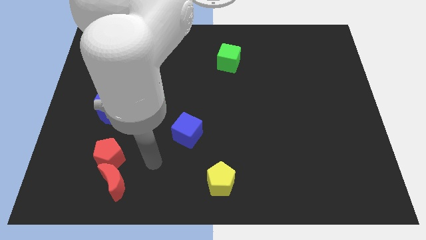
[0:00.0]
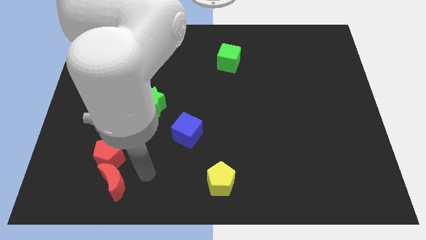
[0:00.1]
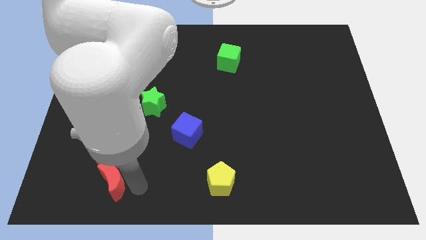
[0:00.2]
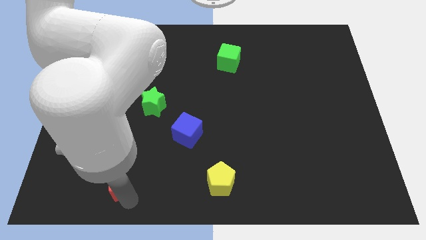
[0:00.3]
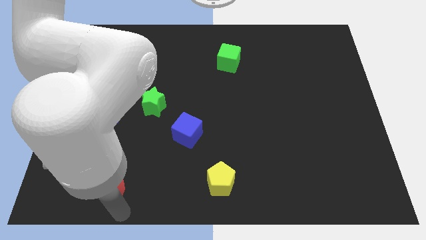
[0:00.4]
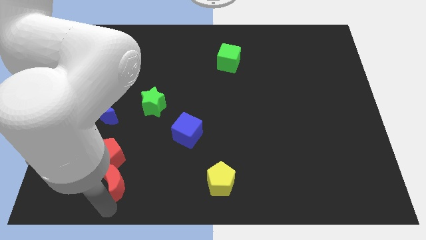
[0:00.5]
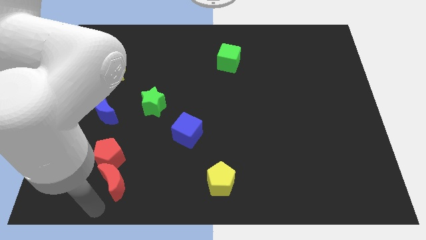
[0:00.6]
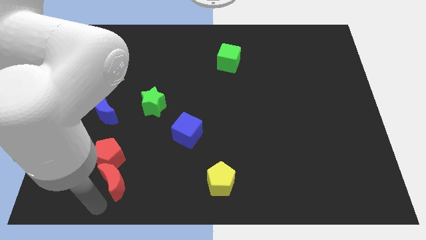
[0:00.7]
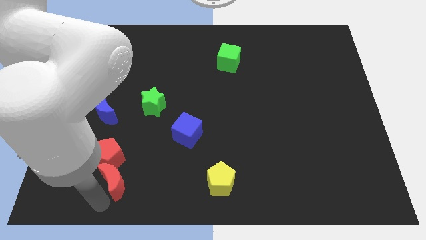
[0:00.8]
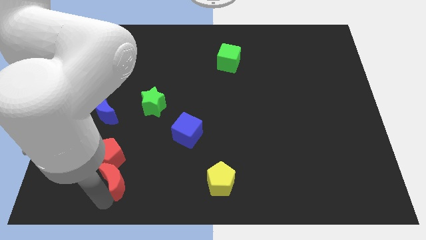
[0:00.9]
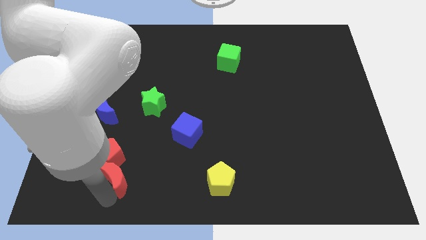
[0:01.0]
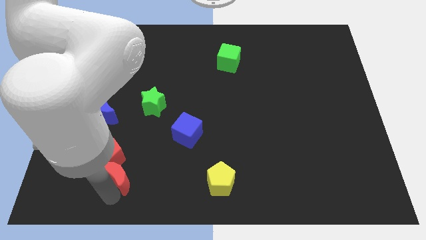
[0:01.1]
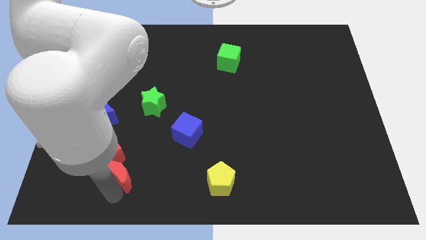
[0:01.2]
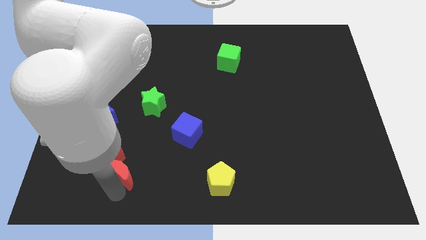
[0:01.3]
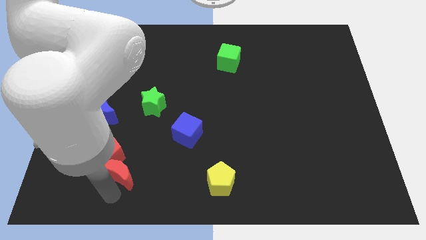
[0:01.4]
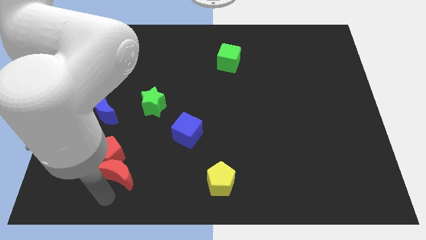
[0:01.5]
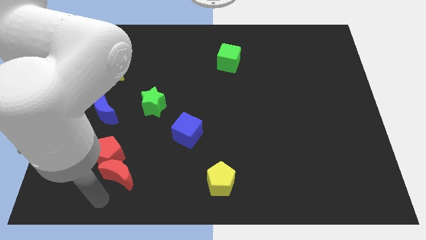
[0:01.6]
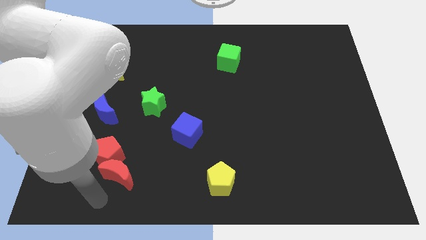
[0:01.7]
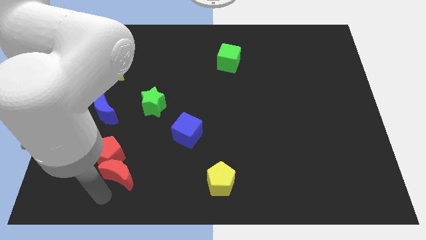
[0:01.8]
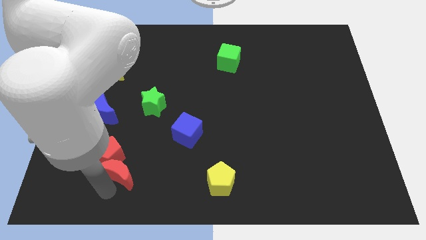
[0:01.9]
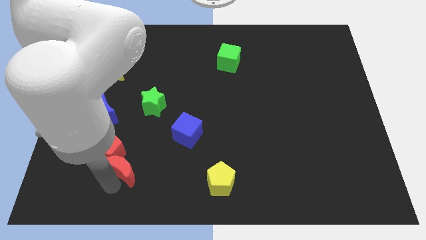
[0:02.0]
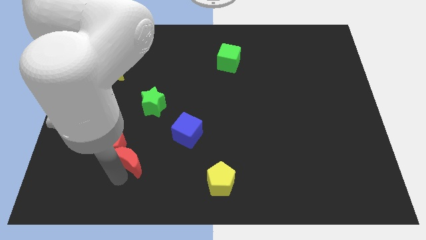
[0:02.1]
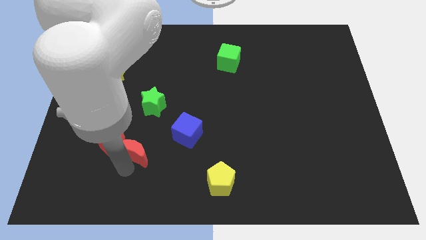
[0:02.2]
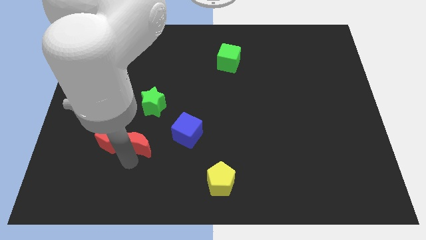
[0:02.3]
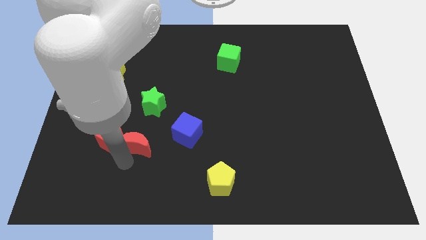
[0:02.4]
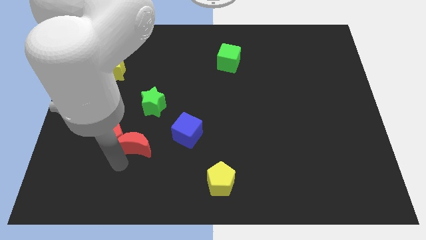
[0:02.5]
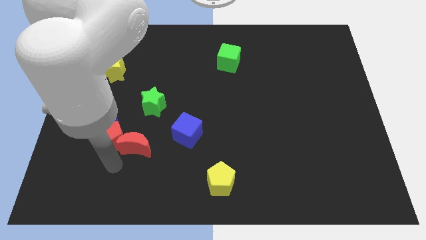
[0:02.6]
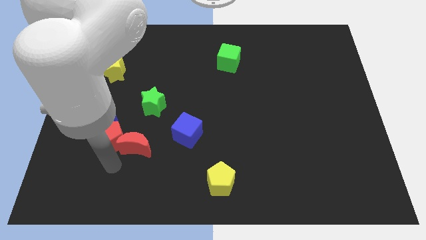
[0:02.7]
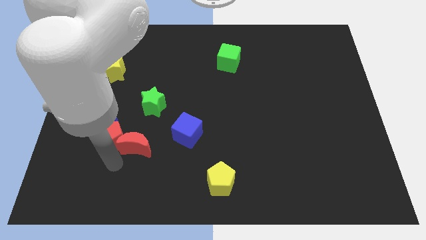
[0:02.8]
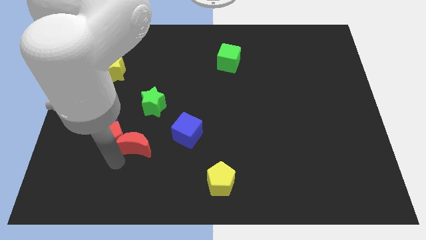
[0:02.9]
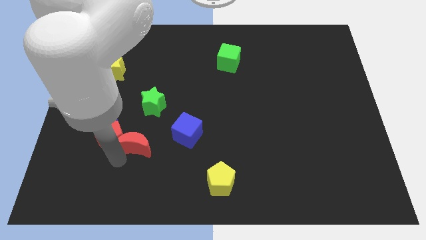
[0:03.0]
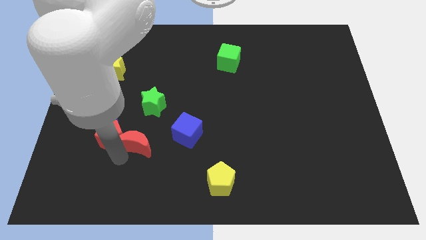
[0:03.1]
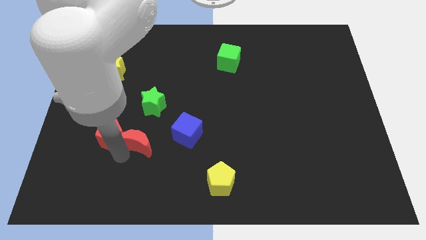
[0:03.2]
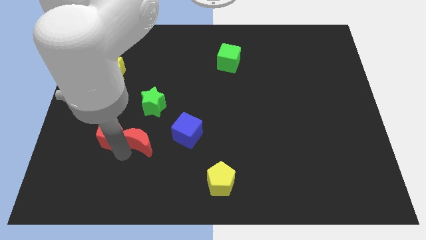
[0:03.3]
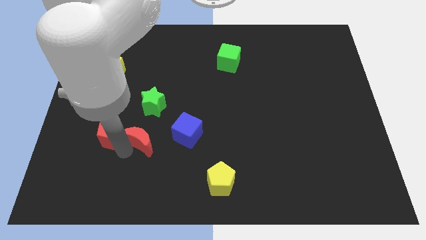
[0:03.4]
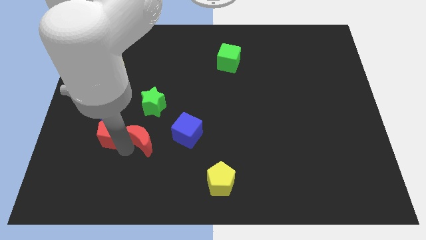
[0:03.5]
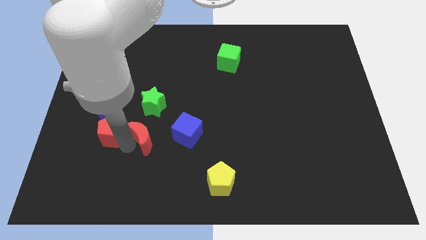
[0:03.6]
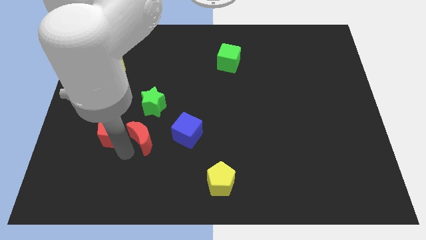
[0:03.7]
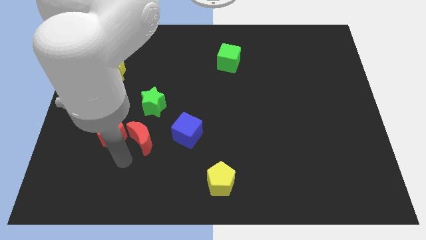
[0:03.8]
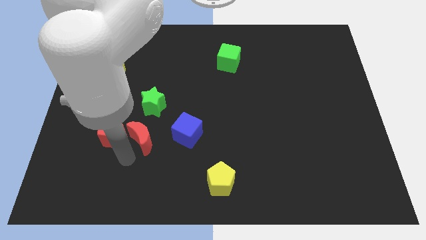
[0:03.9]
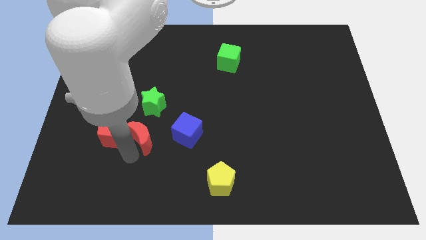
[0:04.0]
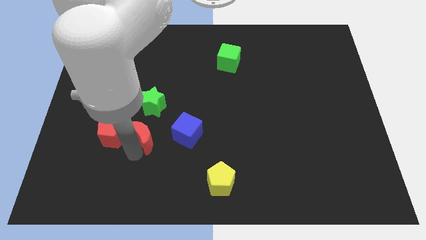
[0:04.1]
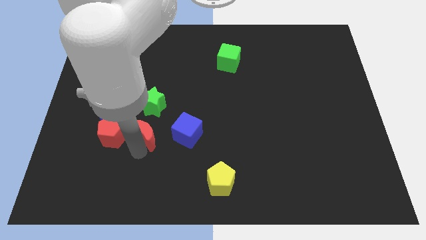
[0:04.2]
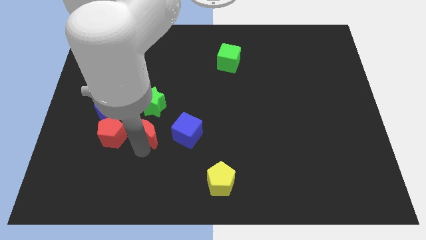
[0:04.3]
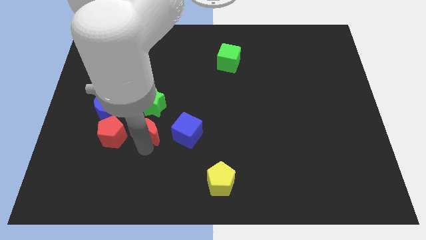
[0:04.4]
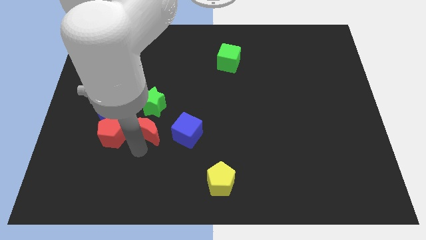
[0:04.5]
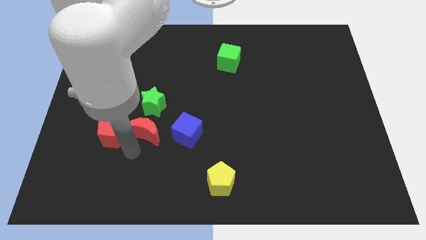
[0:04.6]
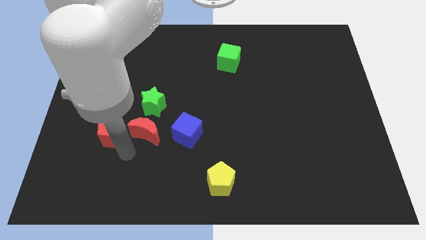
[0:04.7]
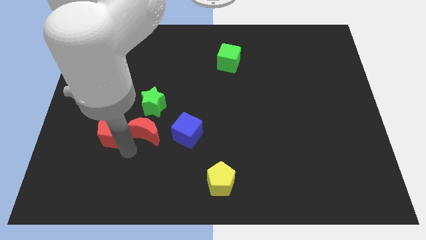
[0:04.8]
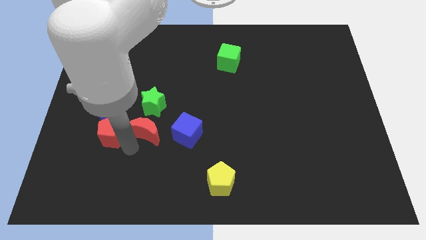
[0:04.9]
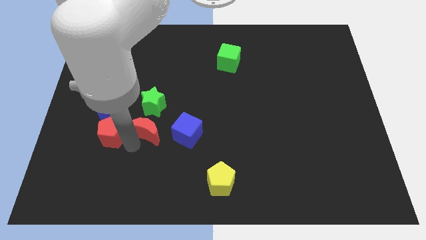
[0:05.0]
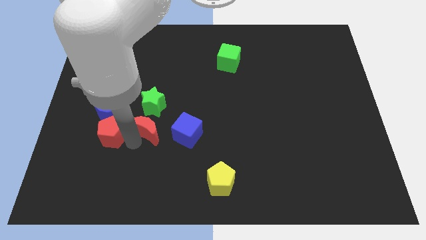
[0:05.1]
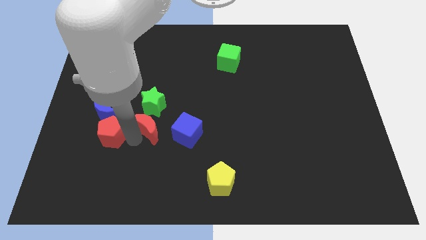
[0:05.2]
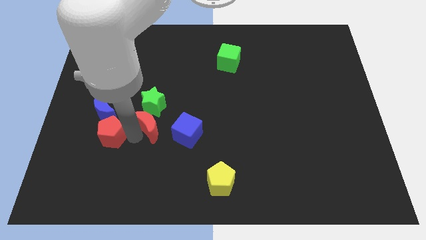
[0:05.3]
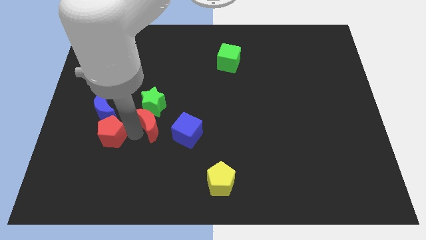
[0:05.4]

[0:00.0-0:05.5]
put the red moon diagonally up and to the left of the blue cube

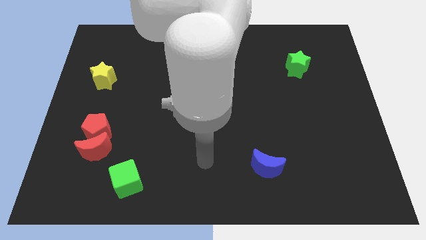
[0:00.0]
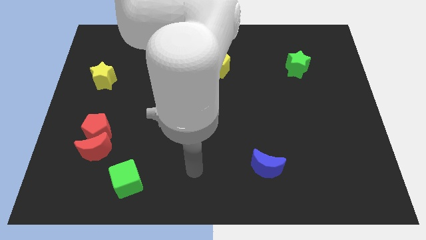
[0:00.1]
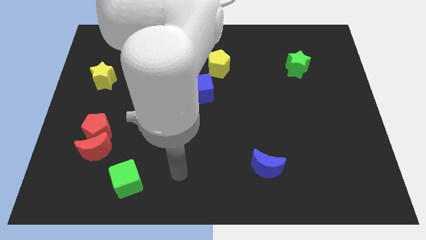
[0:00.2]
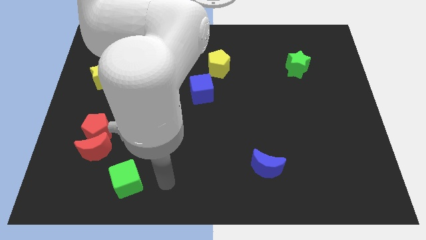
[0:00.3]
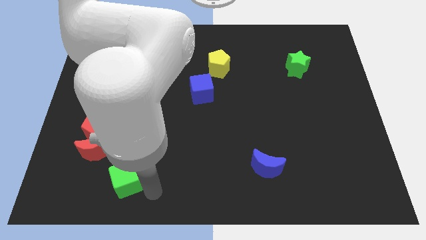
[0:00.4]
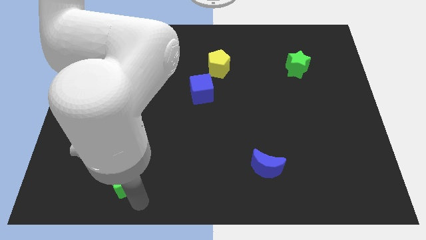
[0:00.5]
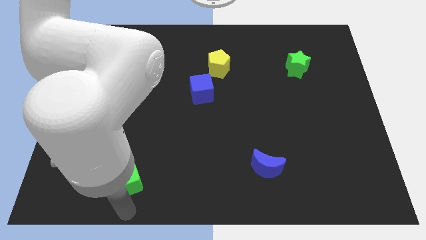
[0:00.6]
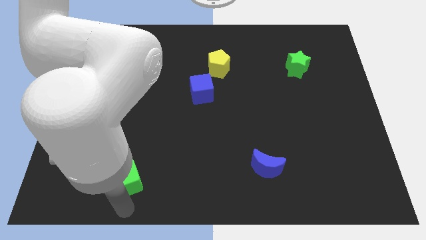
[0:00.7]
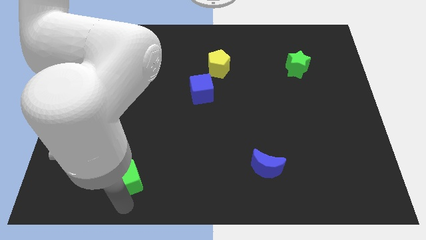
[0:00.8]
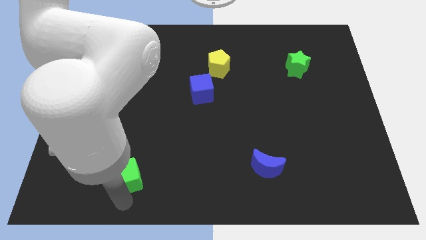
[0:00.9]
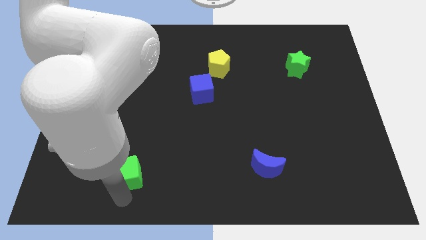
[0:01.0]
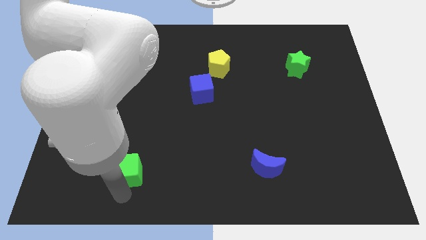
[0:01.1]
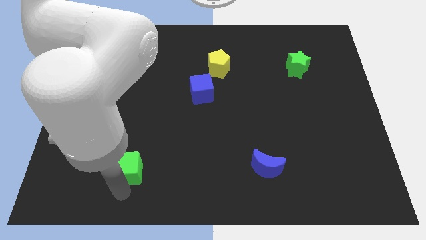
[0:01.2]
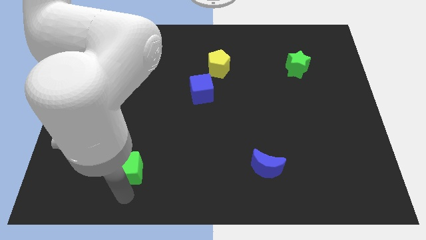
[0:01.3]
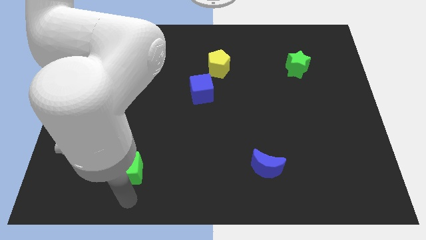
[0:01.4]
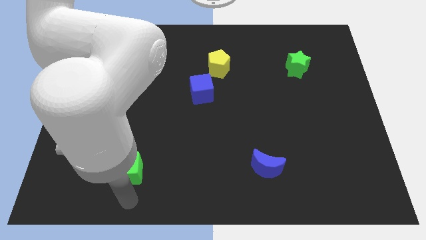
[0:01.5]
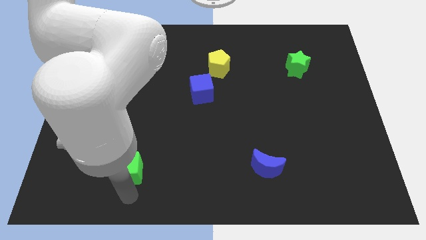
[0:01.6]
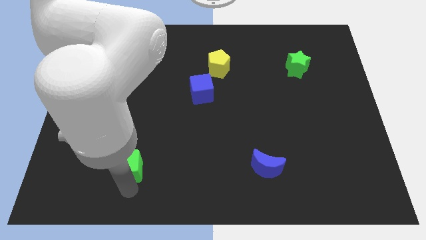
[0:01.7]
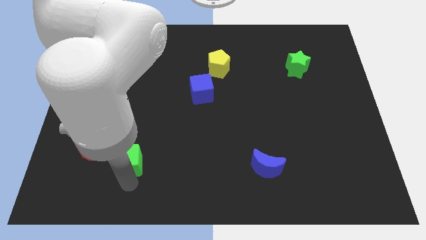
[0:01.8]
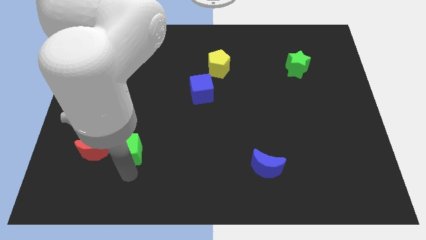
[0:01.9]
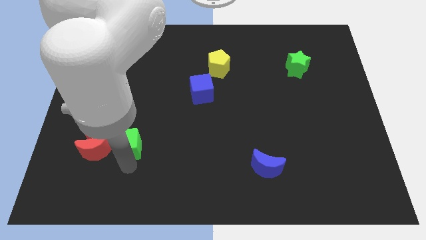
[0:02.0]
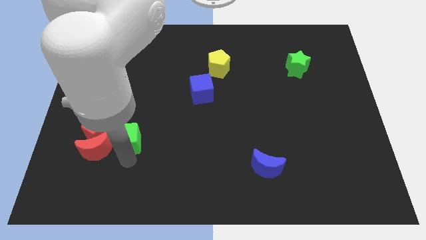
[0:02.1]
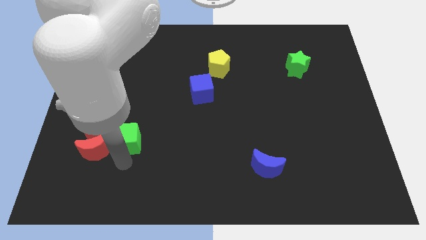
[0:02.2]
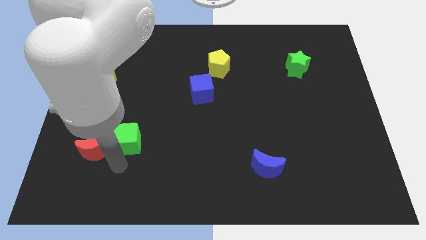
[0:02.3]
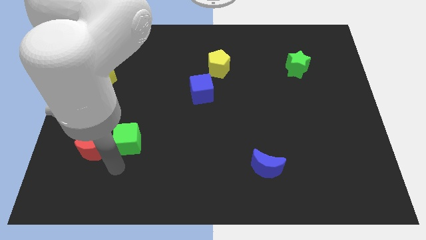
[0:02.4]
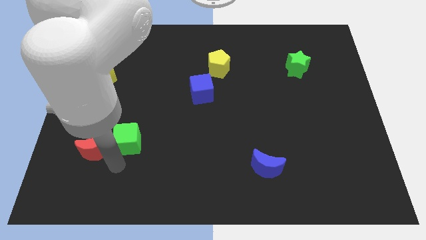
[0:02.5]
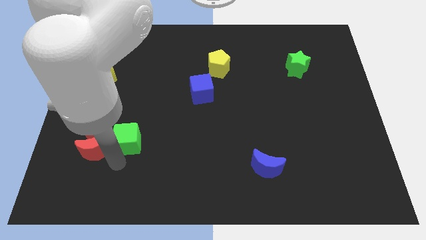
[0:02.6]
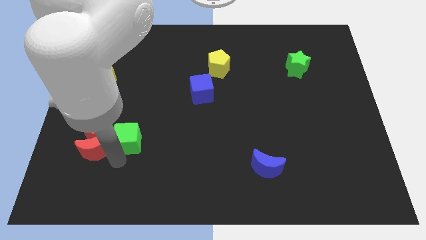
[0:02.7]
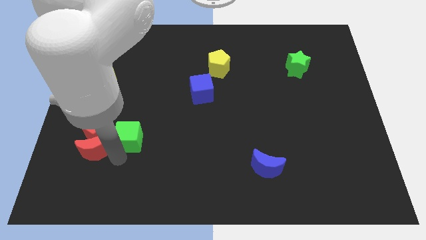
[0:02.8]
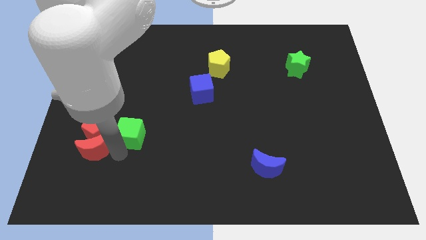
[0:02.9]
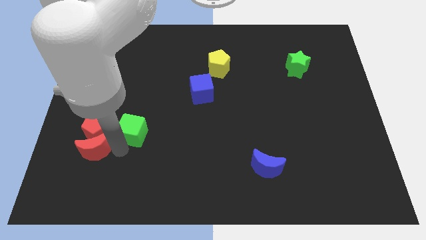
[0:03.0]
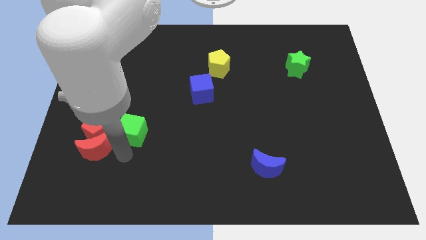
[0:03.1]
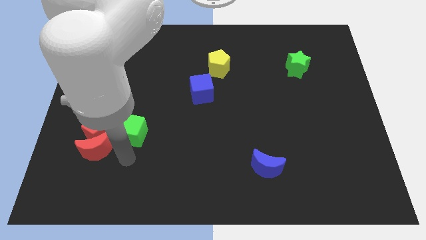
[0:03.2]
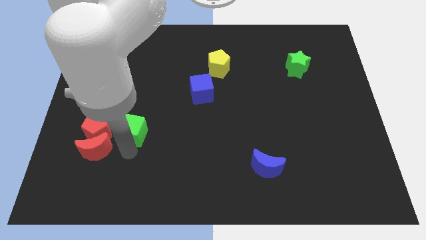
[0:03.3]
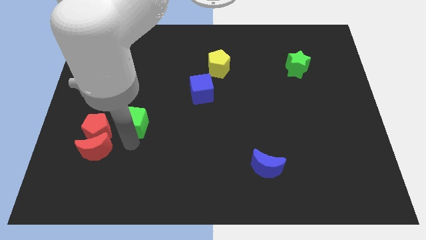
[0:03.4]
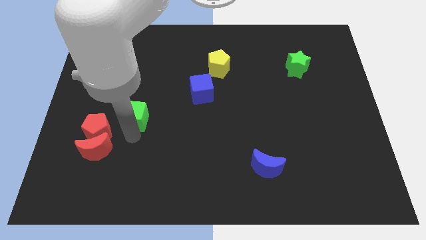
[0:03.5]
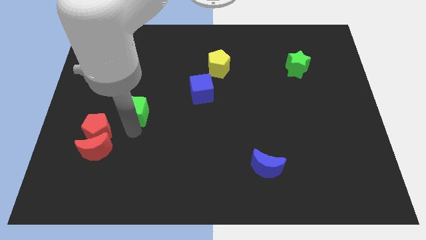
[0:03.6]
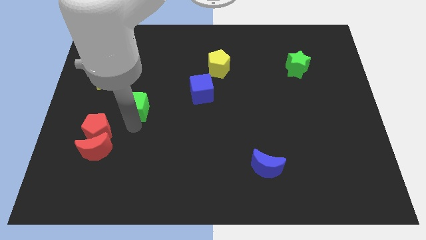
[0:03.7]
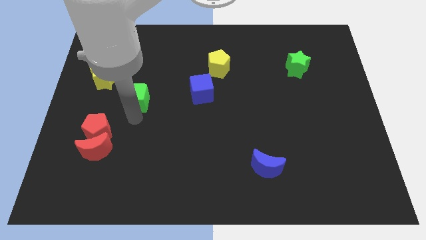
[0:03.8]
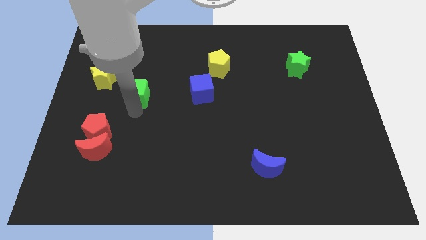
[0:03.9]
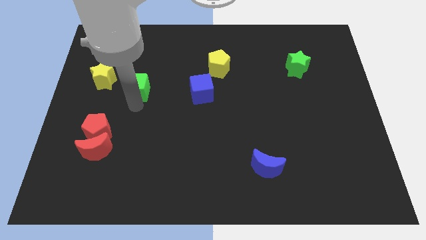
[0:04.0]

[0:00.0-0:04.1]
put the green cube right of the yellow star
